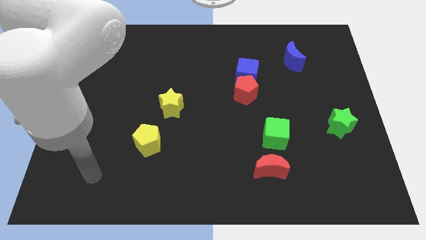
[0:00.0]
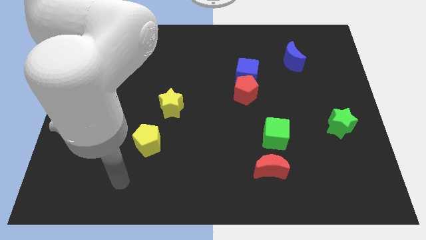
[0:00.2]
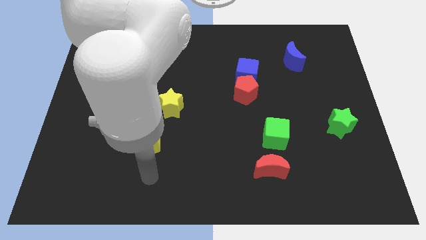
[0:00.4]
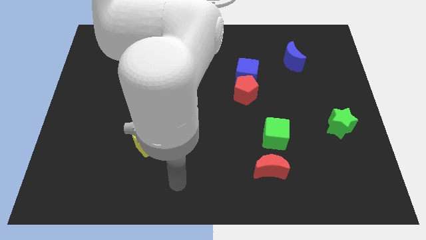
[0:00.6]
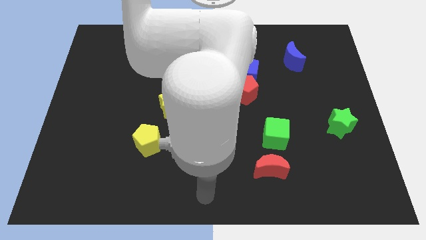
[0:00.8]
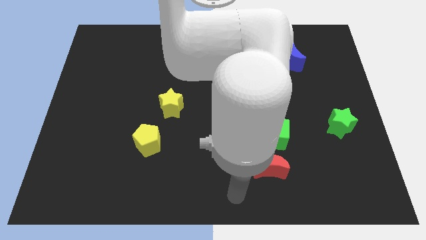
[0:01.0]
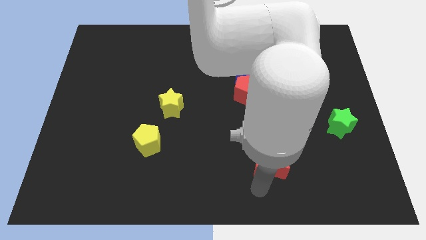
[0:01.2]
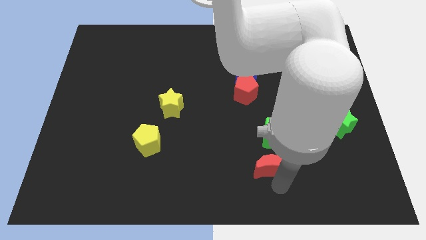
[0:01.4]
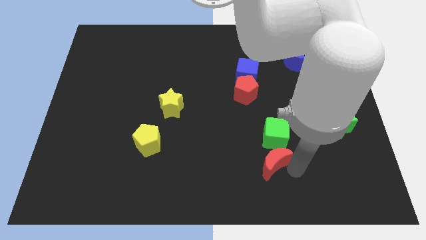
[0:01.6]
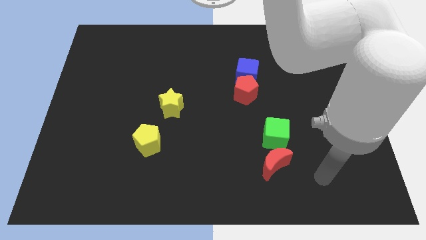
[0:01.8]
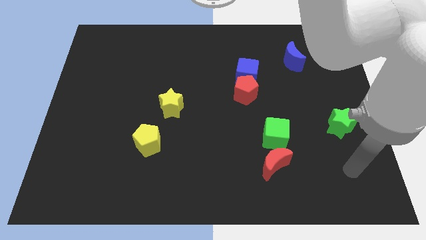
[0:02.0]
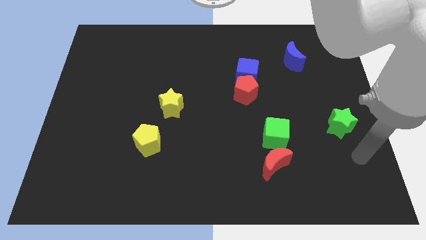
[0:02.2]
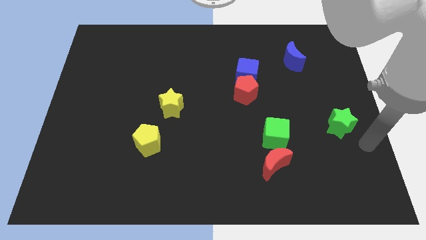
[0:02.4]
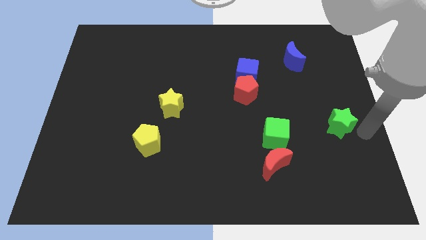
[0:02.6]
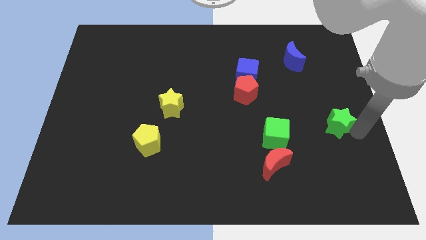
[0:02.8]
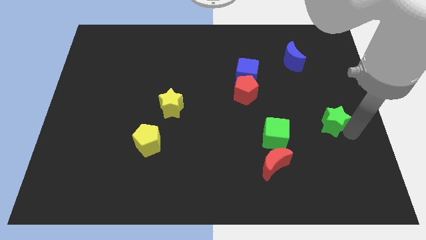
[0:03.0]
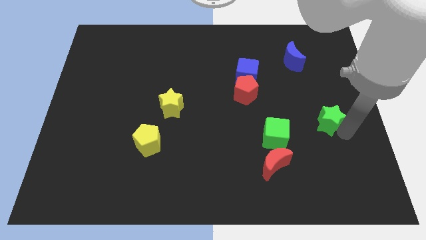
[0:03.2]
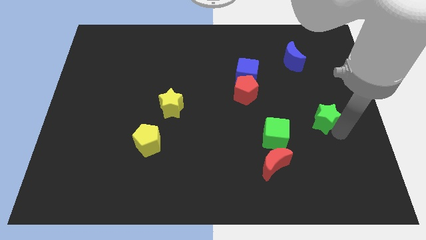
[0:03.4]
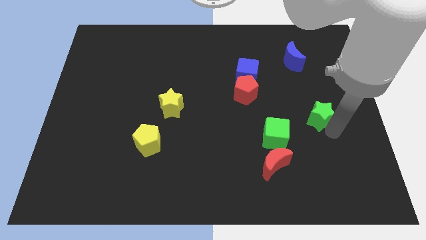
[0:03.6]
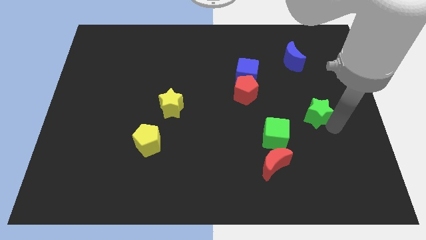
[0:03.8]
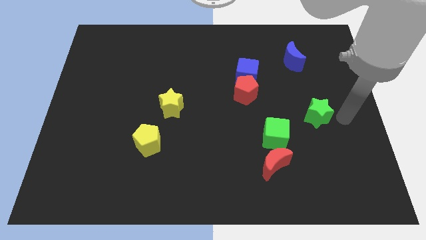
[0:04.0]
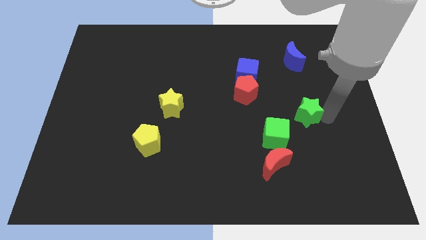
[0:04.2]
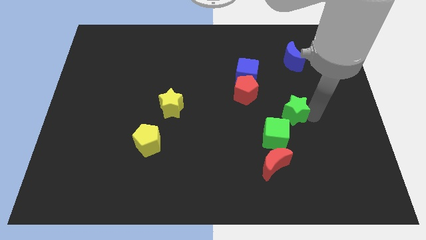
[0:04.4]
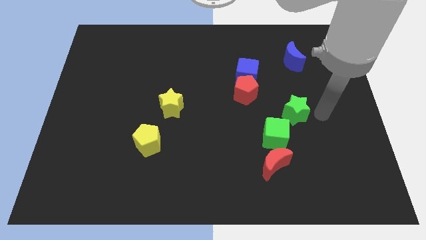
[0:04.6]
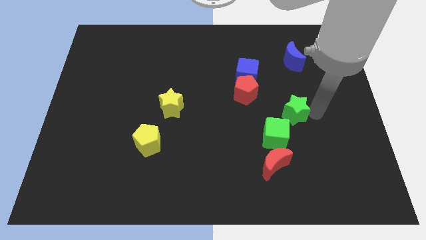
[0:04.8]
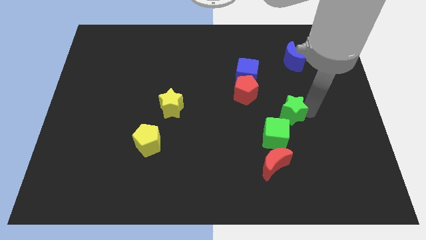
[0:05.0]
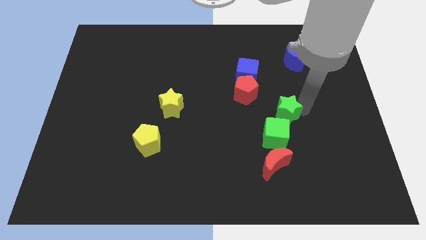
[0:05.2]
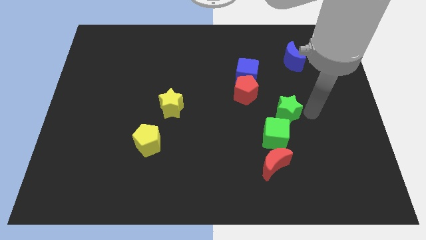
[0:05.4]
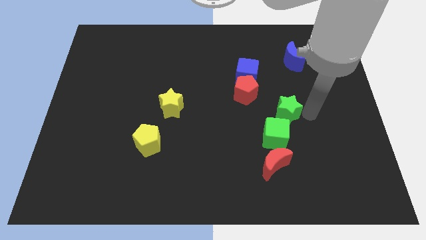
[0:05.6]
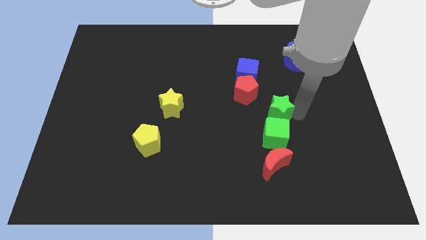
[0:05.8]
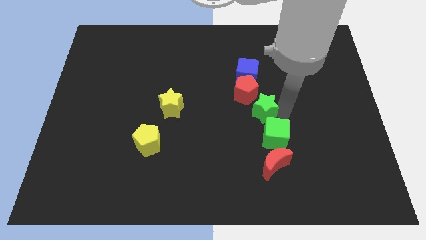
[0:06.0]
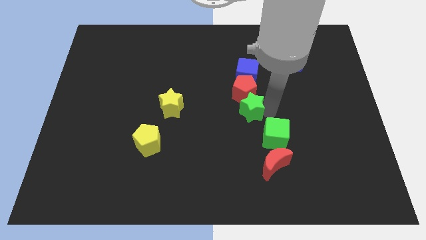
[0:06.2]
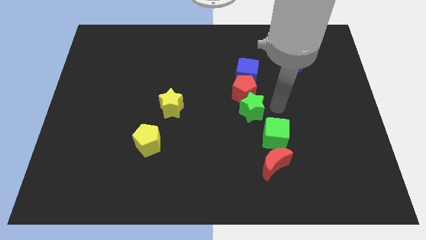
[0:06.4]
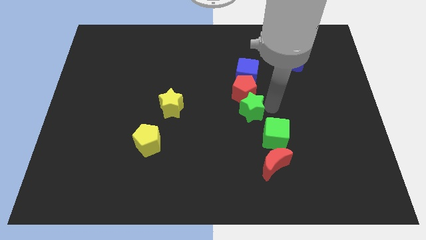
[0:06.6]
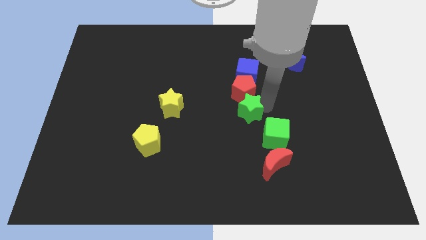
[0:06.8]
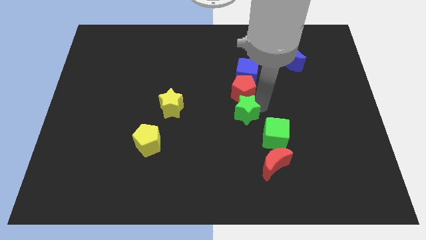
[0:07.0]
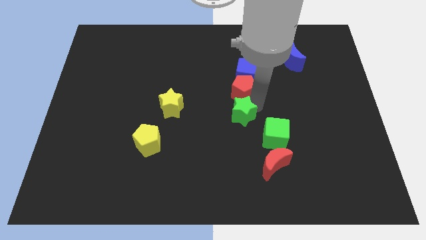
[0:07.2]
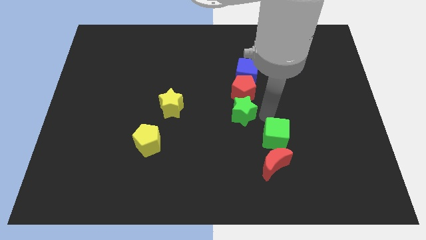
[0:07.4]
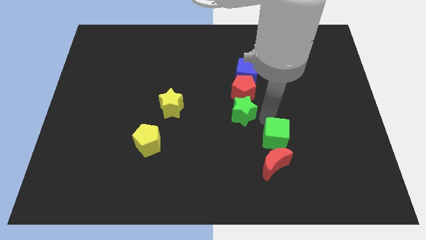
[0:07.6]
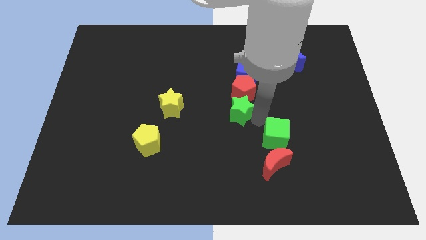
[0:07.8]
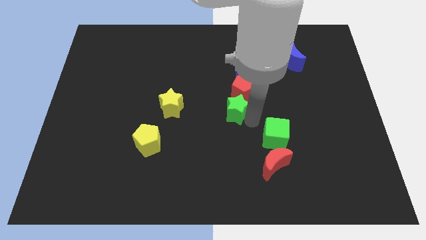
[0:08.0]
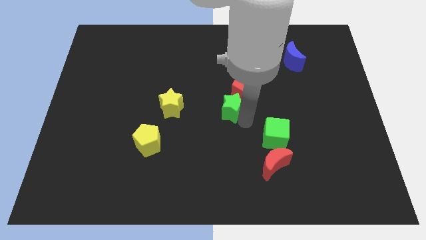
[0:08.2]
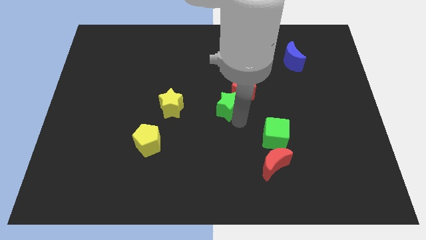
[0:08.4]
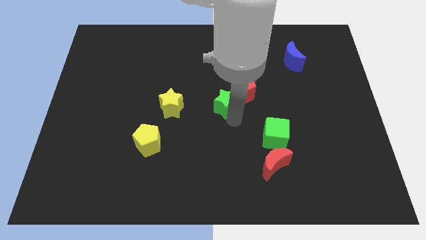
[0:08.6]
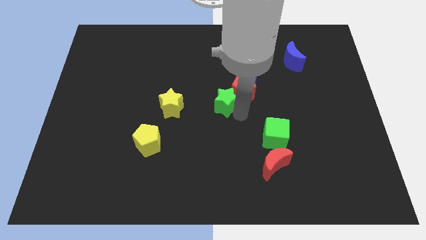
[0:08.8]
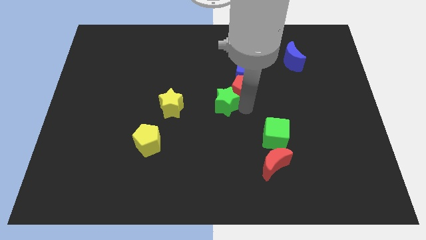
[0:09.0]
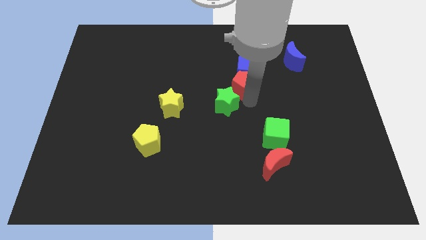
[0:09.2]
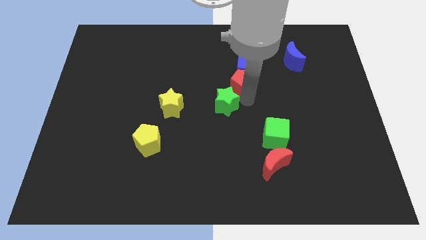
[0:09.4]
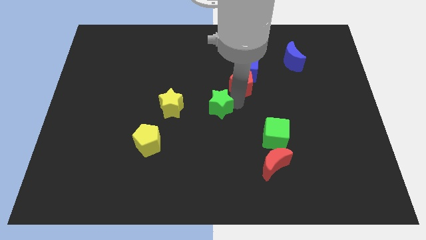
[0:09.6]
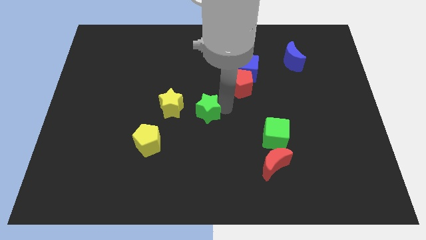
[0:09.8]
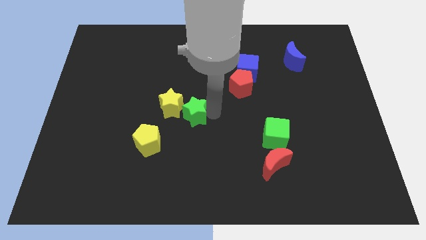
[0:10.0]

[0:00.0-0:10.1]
slide the green star next to the yellow star

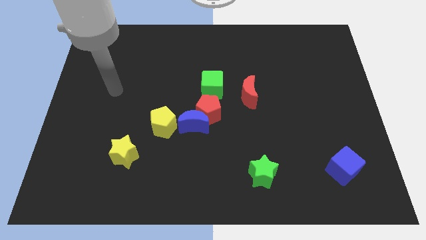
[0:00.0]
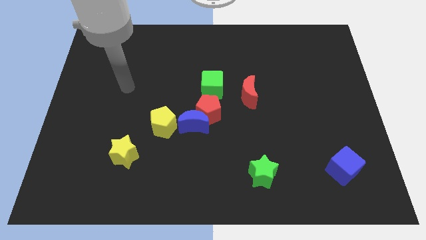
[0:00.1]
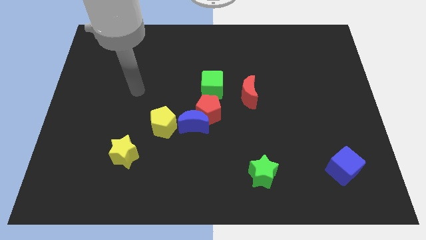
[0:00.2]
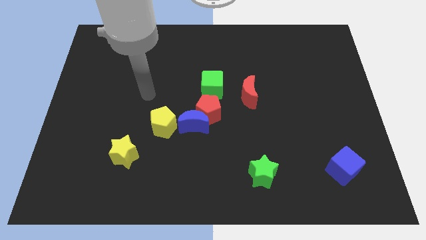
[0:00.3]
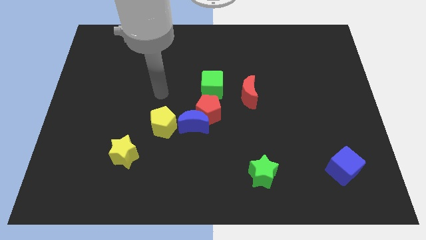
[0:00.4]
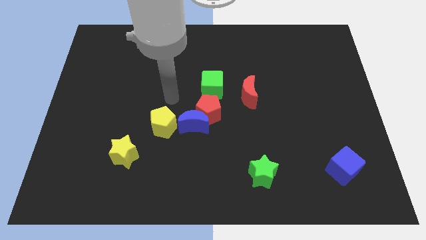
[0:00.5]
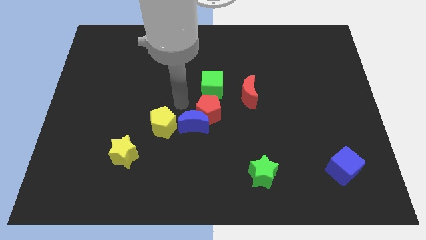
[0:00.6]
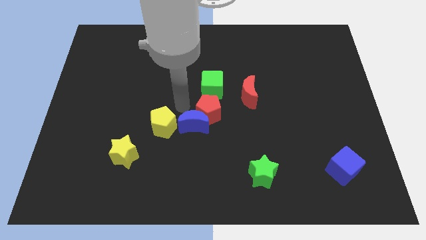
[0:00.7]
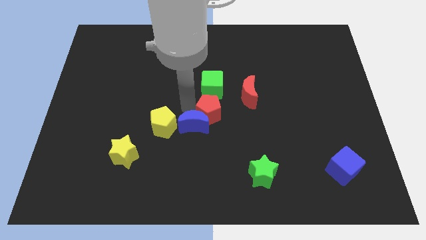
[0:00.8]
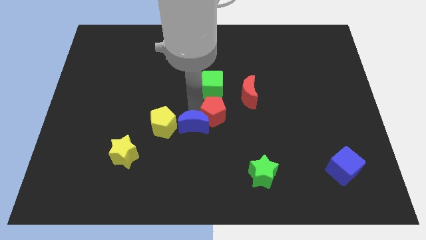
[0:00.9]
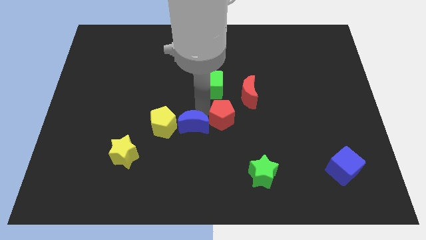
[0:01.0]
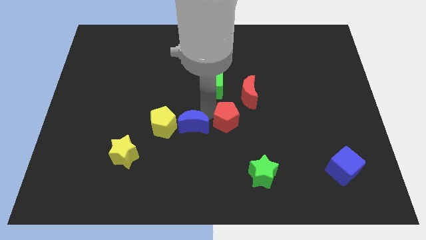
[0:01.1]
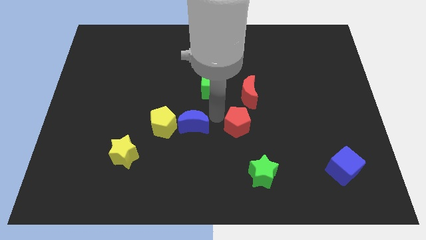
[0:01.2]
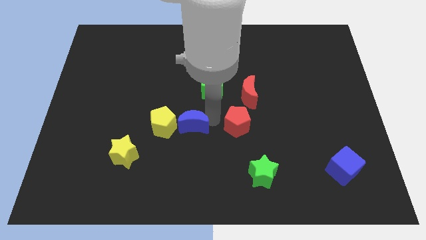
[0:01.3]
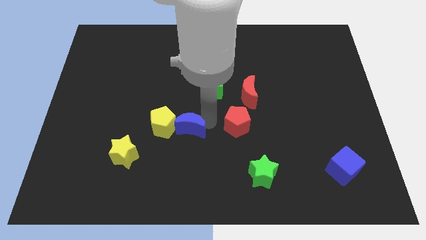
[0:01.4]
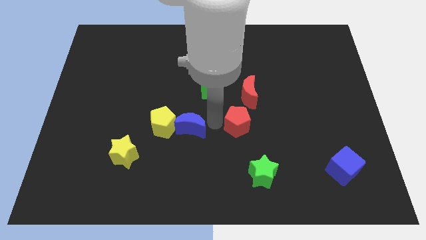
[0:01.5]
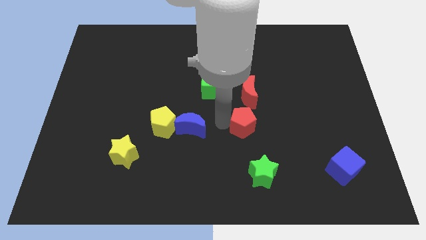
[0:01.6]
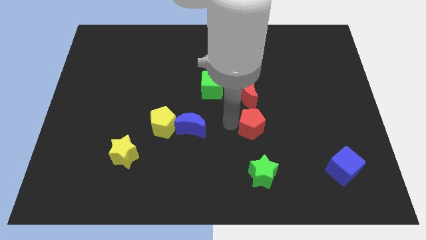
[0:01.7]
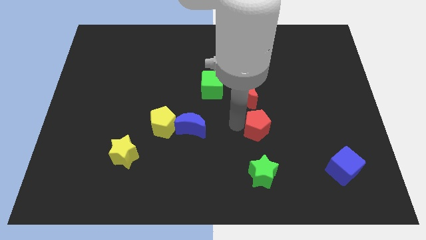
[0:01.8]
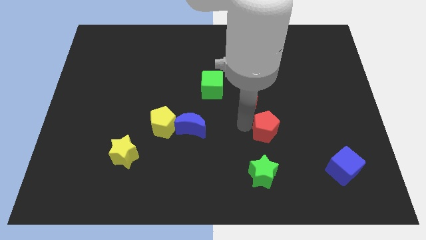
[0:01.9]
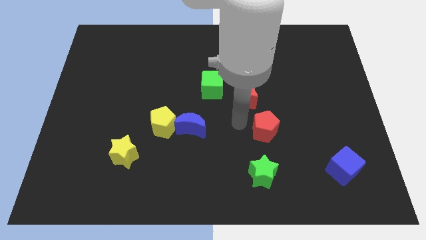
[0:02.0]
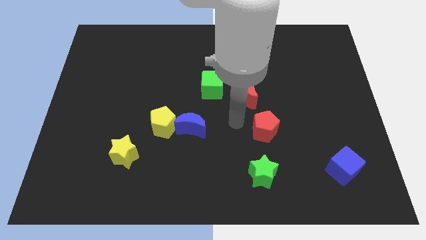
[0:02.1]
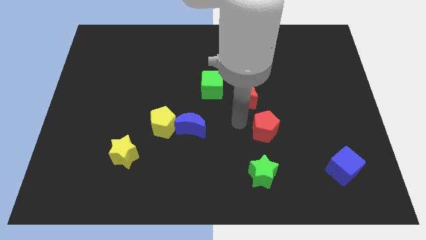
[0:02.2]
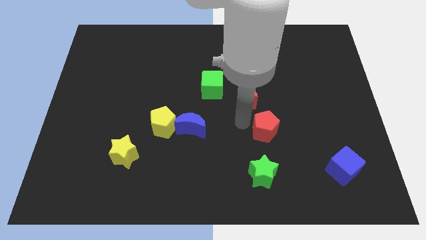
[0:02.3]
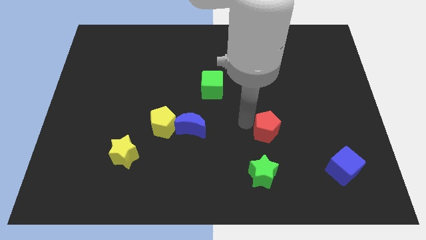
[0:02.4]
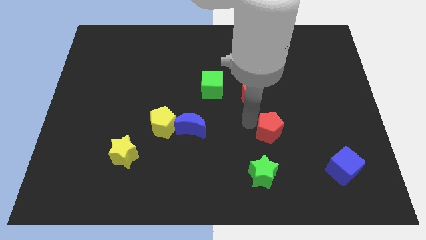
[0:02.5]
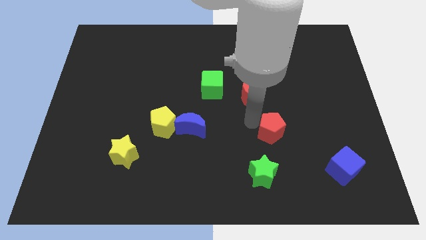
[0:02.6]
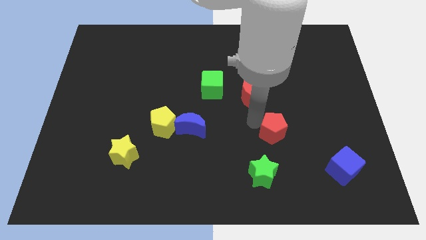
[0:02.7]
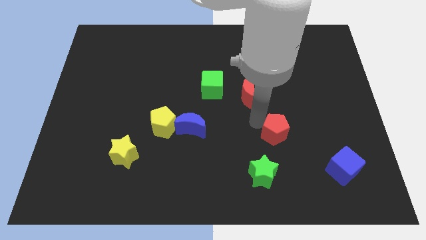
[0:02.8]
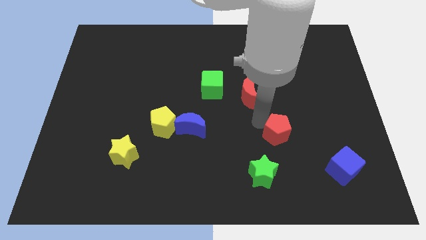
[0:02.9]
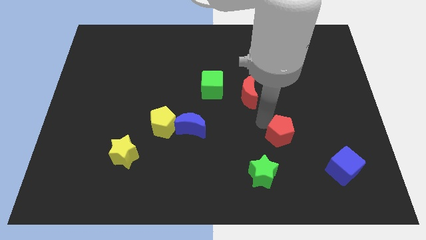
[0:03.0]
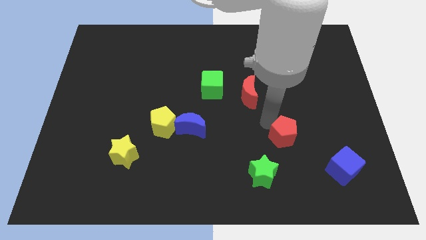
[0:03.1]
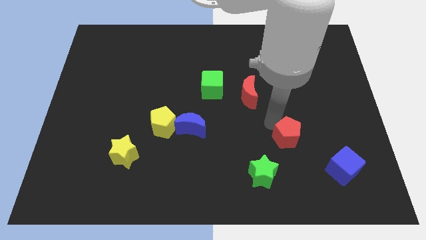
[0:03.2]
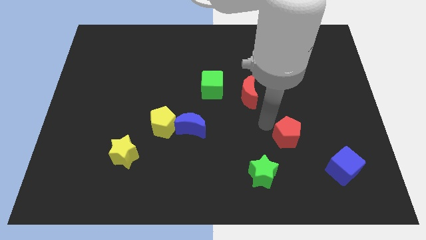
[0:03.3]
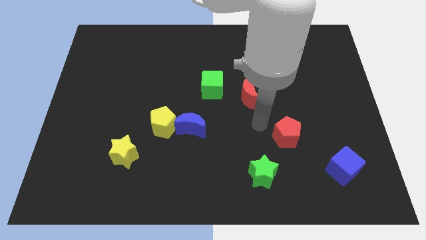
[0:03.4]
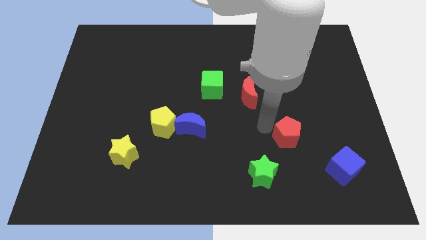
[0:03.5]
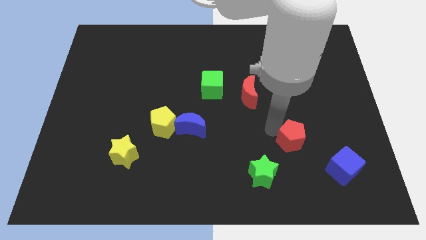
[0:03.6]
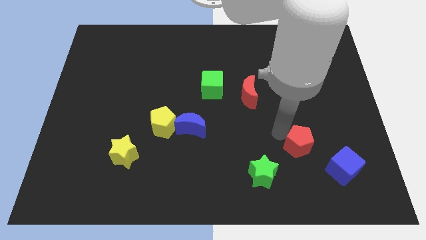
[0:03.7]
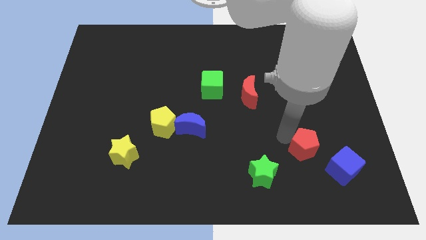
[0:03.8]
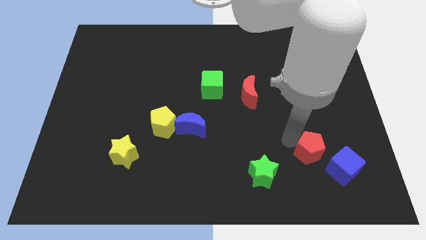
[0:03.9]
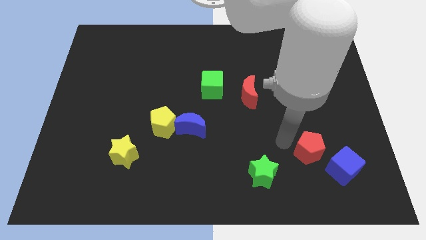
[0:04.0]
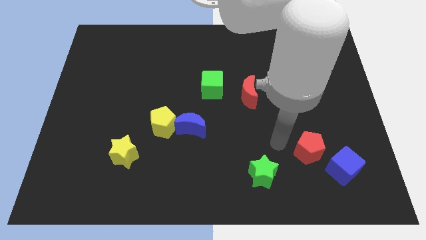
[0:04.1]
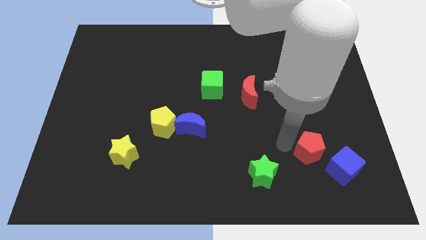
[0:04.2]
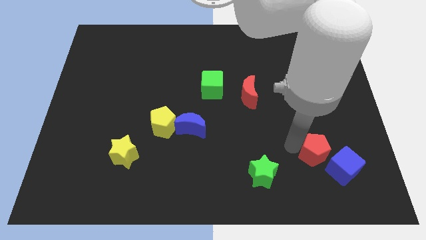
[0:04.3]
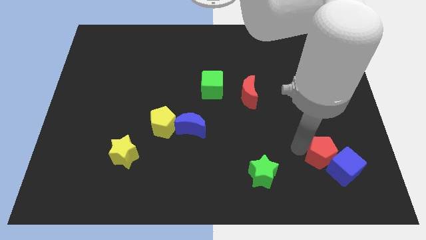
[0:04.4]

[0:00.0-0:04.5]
put the red pentagon towards the blue cube
